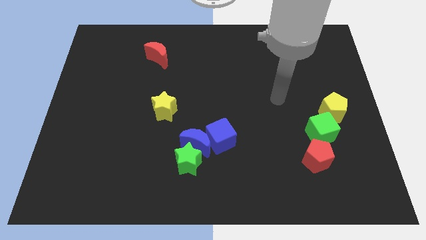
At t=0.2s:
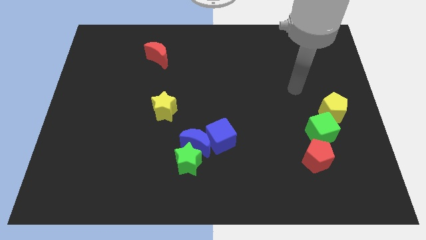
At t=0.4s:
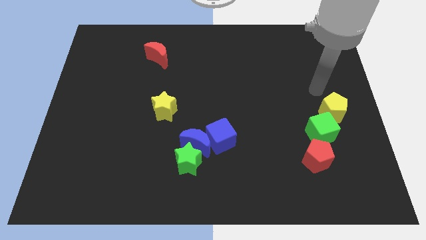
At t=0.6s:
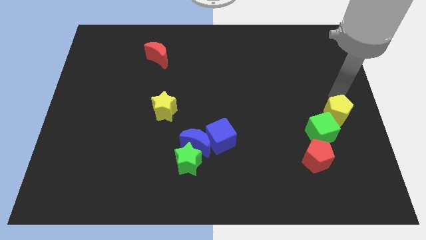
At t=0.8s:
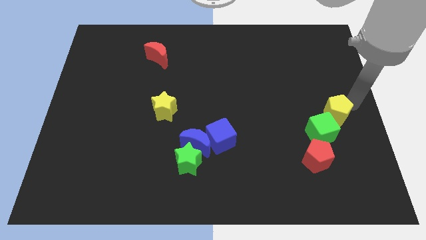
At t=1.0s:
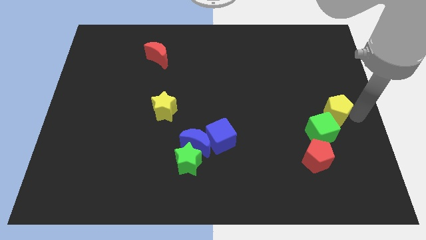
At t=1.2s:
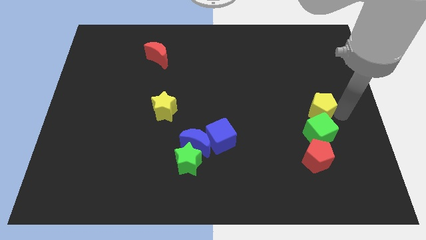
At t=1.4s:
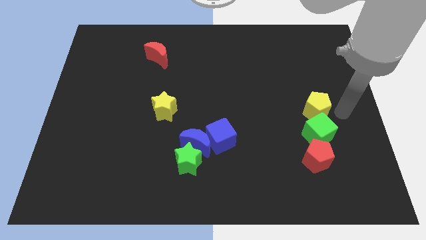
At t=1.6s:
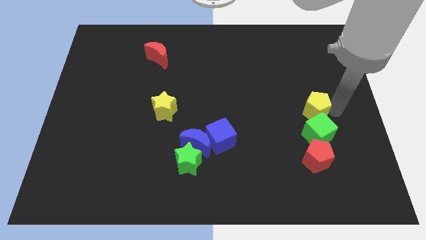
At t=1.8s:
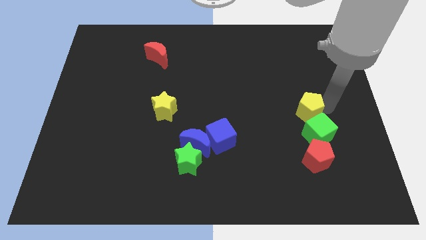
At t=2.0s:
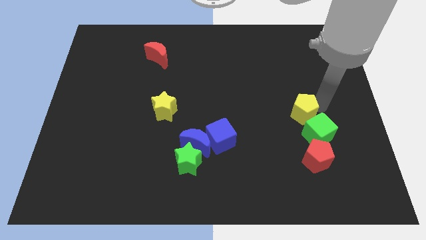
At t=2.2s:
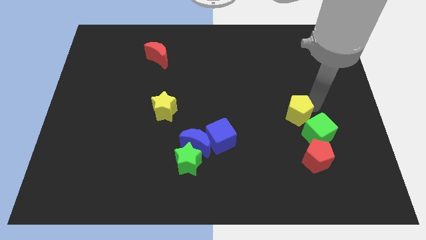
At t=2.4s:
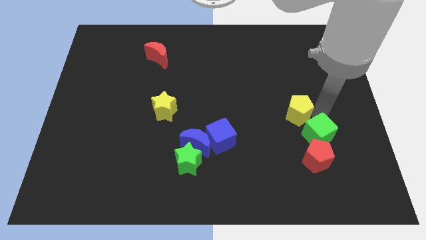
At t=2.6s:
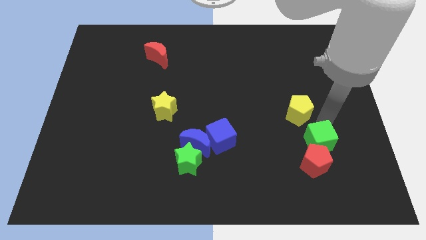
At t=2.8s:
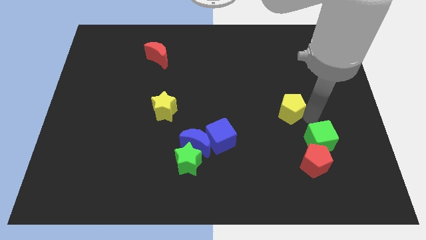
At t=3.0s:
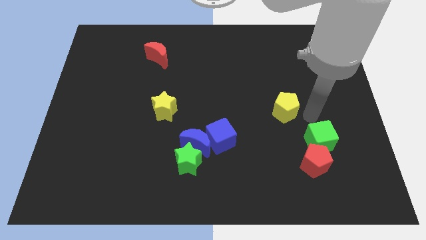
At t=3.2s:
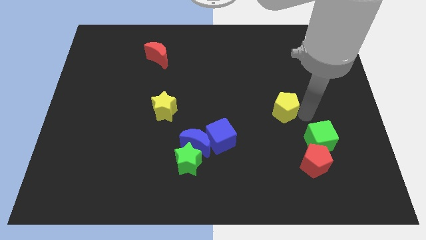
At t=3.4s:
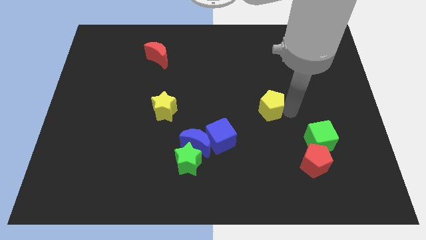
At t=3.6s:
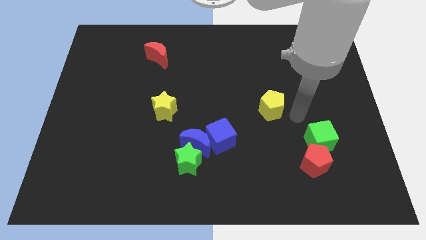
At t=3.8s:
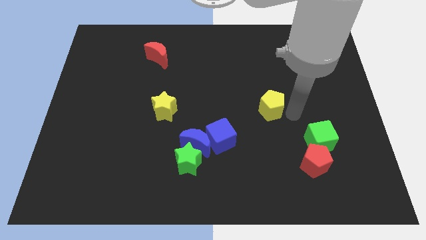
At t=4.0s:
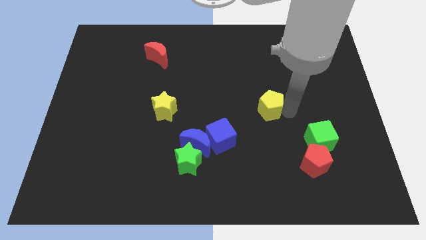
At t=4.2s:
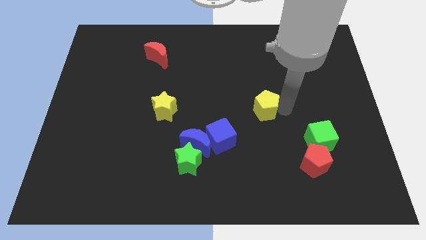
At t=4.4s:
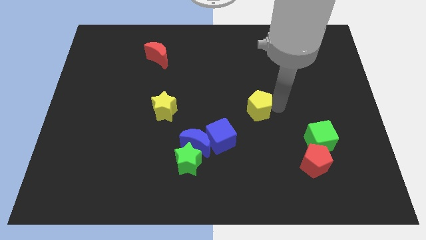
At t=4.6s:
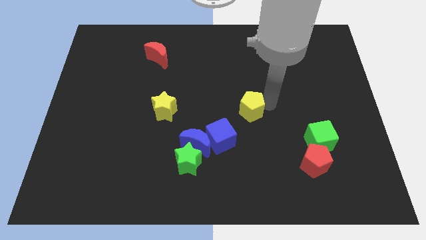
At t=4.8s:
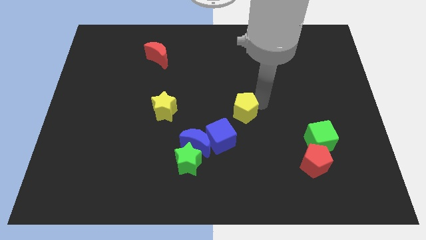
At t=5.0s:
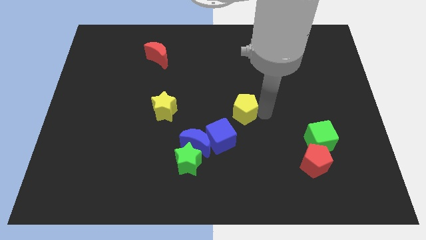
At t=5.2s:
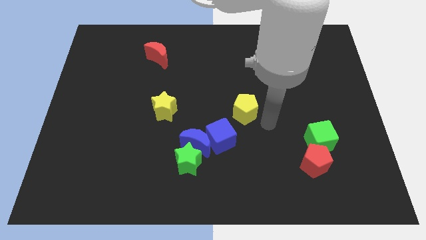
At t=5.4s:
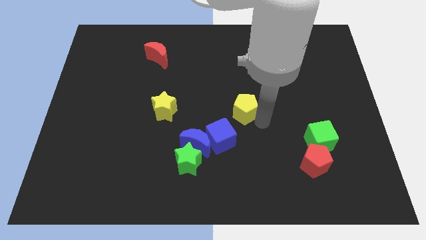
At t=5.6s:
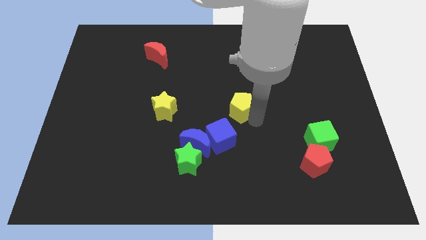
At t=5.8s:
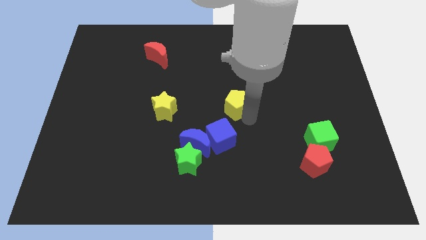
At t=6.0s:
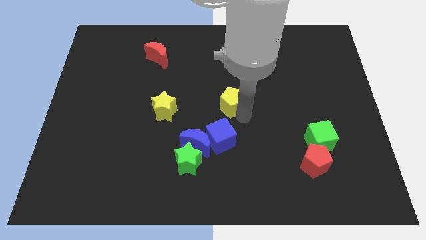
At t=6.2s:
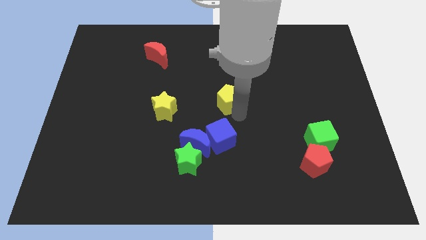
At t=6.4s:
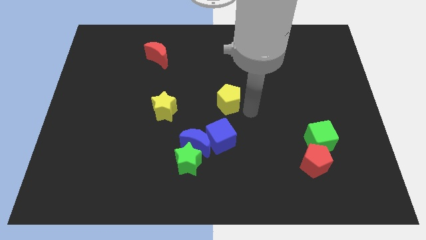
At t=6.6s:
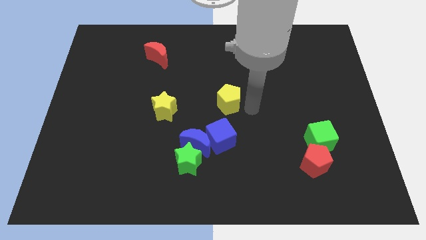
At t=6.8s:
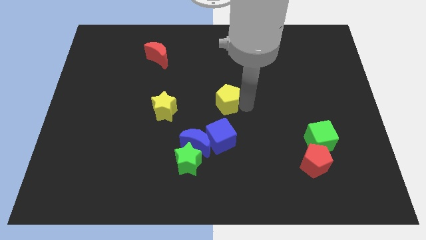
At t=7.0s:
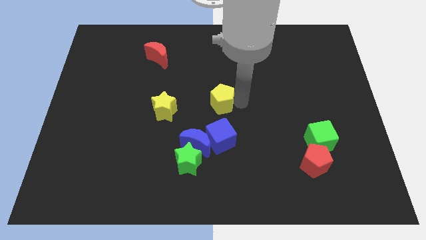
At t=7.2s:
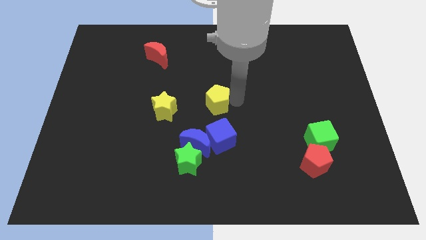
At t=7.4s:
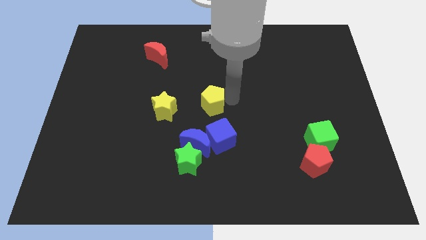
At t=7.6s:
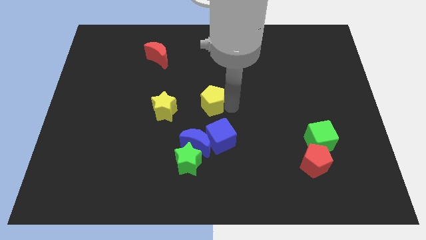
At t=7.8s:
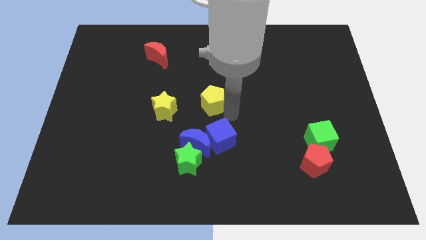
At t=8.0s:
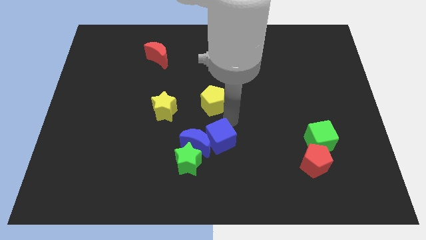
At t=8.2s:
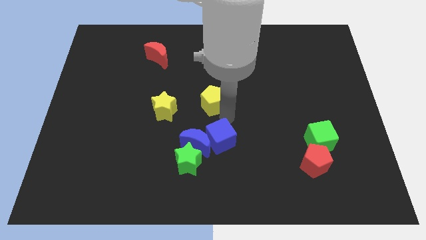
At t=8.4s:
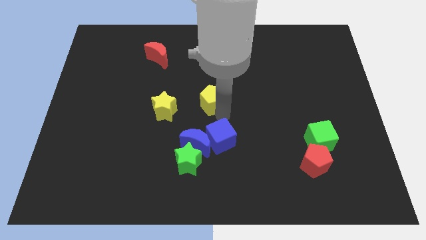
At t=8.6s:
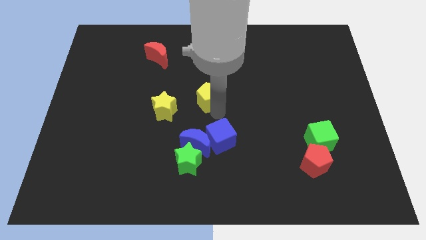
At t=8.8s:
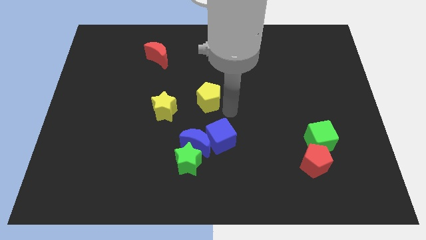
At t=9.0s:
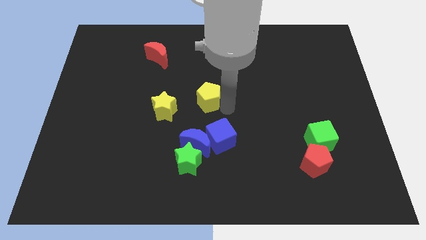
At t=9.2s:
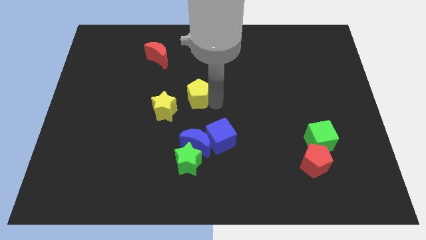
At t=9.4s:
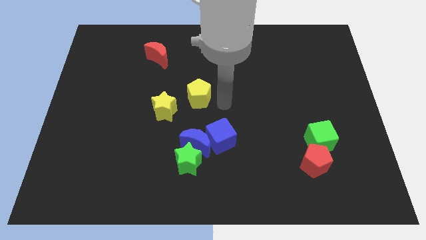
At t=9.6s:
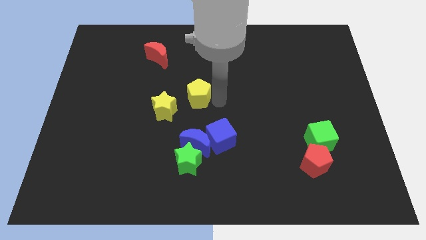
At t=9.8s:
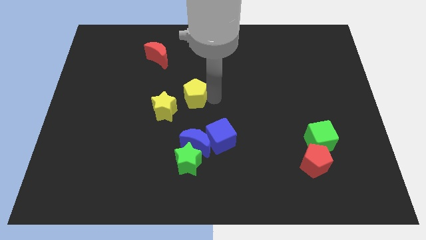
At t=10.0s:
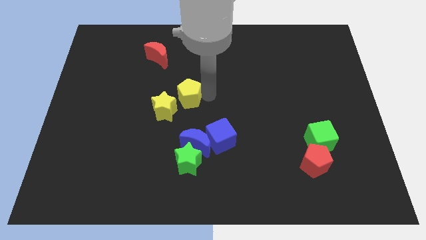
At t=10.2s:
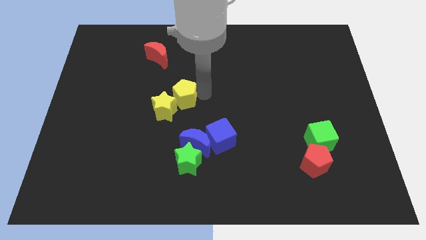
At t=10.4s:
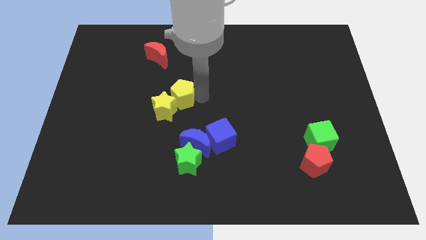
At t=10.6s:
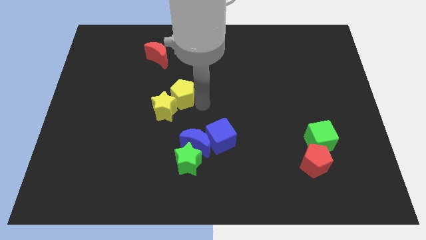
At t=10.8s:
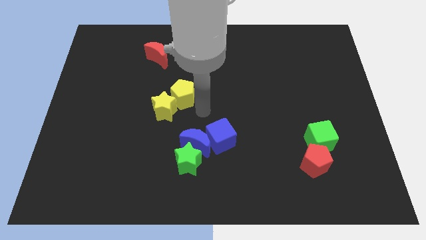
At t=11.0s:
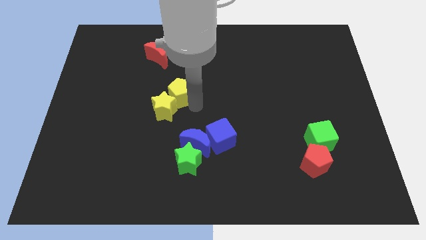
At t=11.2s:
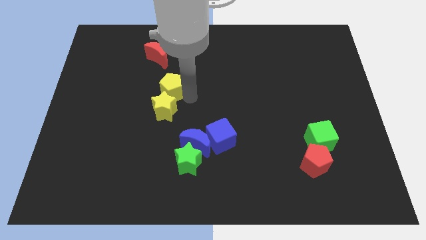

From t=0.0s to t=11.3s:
slide the yellow pentagon to the bottom of the red moon

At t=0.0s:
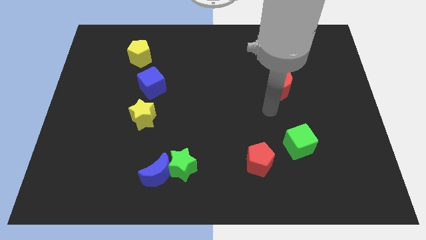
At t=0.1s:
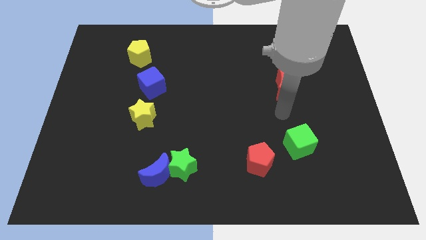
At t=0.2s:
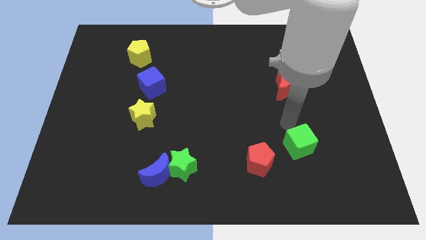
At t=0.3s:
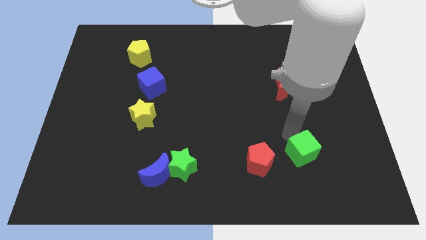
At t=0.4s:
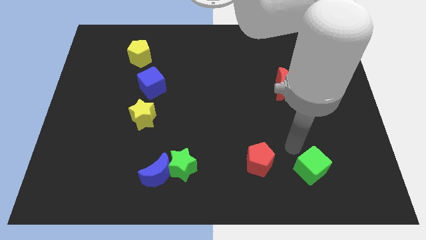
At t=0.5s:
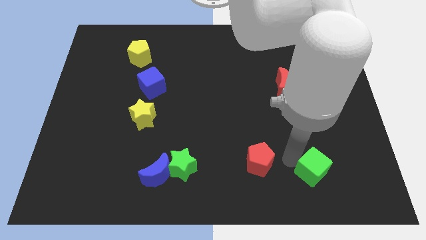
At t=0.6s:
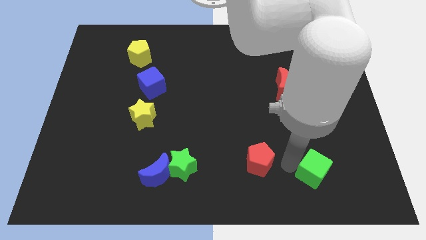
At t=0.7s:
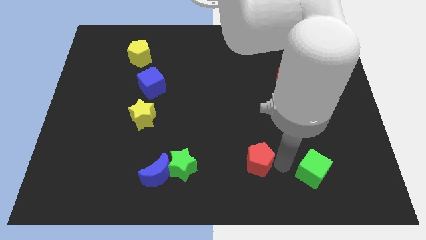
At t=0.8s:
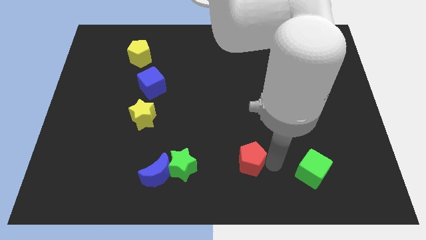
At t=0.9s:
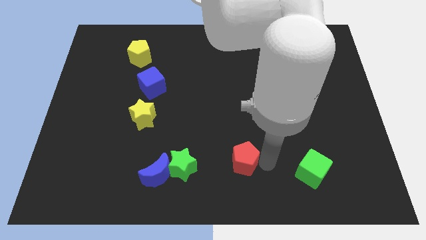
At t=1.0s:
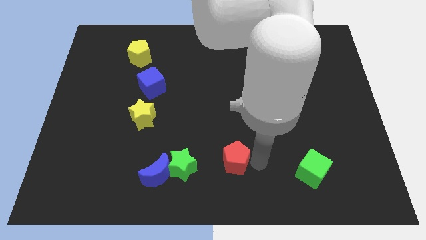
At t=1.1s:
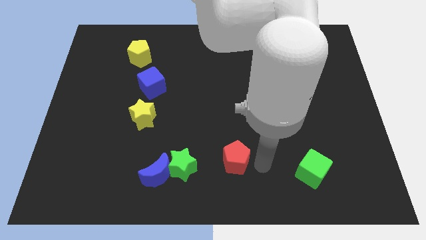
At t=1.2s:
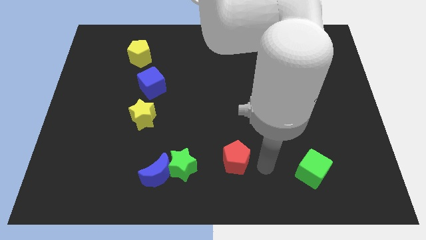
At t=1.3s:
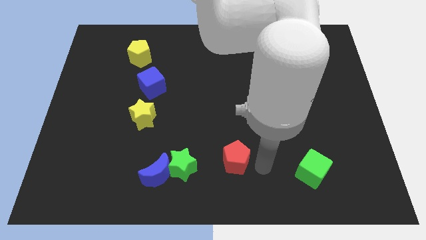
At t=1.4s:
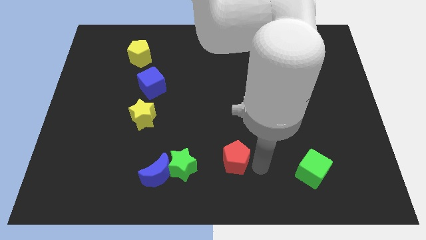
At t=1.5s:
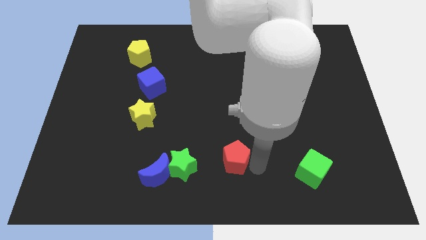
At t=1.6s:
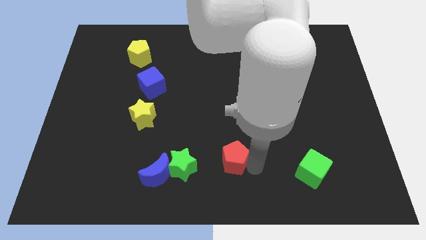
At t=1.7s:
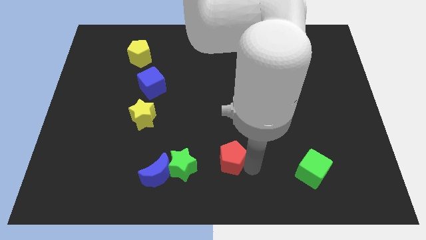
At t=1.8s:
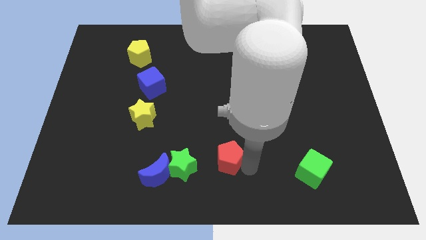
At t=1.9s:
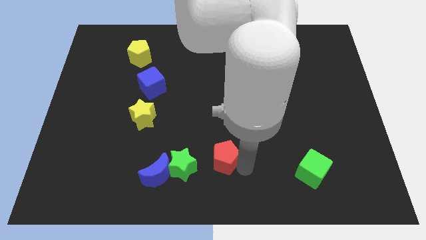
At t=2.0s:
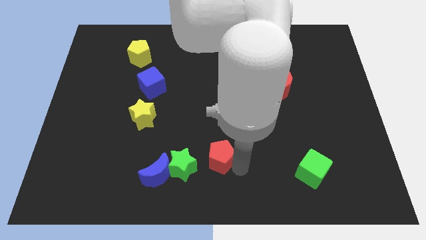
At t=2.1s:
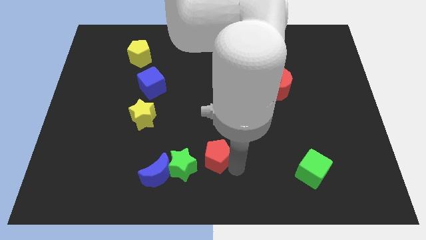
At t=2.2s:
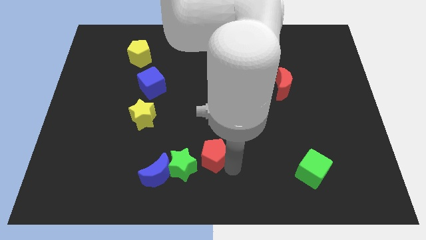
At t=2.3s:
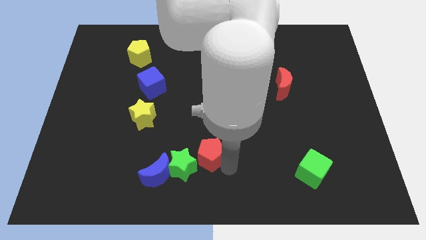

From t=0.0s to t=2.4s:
slide the red pentagon to the top right of the blue moon
